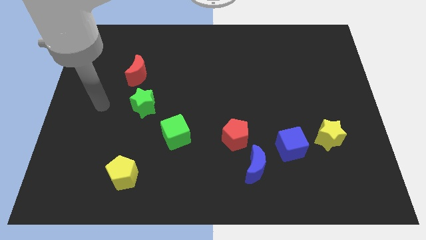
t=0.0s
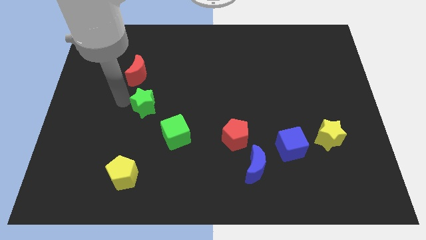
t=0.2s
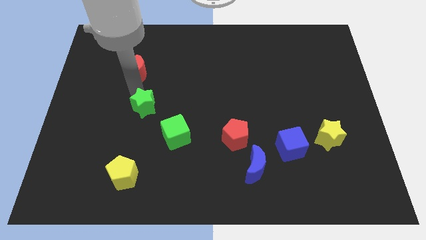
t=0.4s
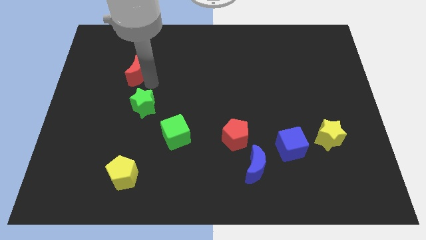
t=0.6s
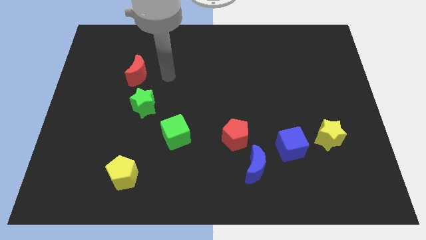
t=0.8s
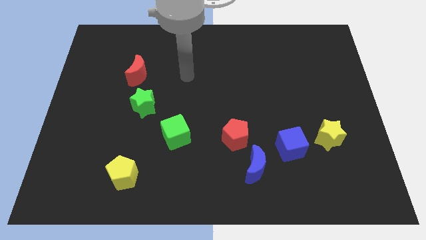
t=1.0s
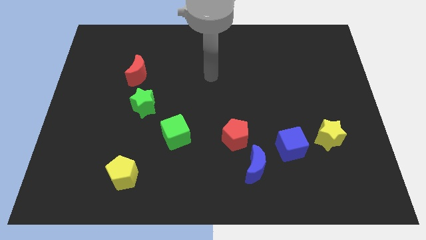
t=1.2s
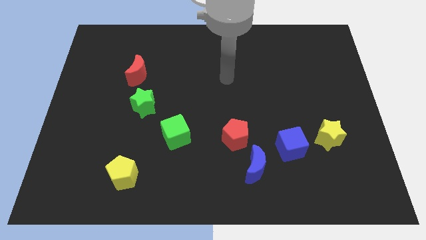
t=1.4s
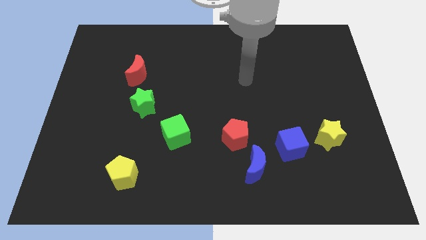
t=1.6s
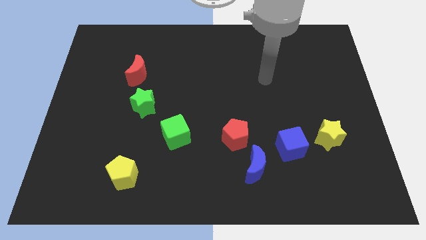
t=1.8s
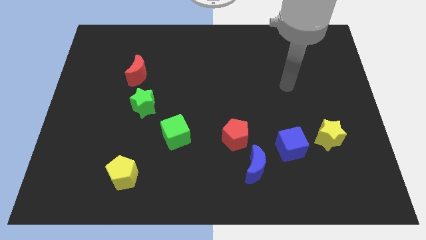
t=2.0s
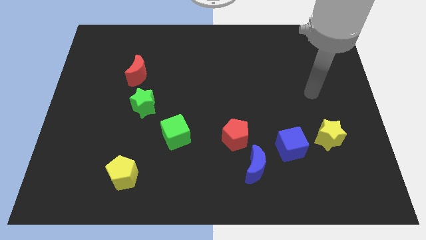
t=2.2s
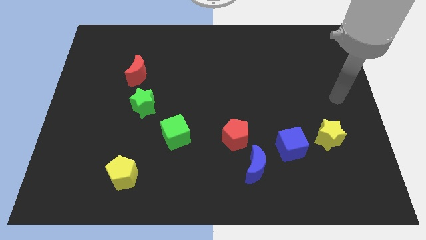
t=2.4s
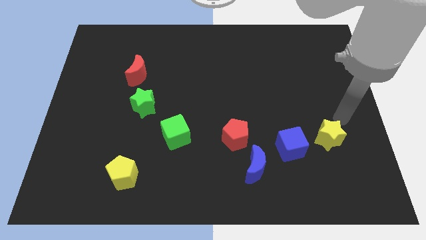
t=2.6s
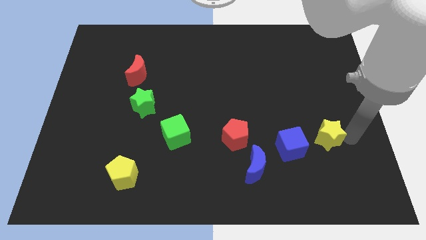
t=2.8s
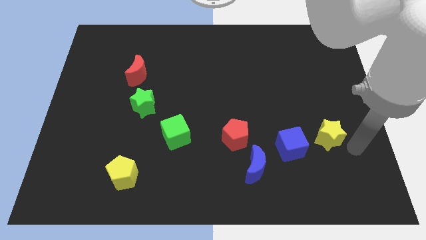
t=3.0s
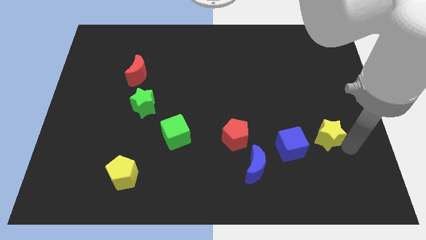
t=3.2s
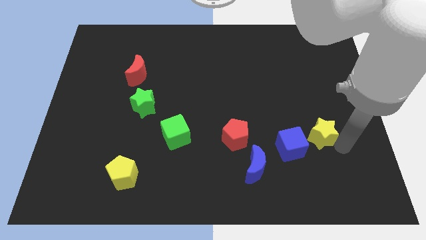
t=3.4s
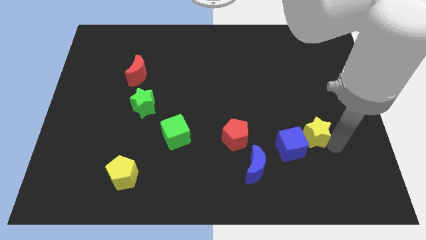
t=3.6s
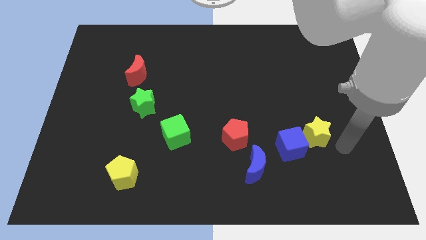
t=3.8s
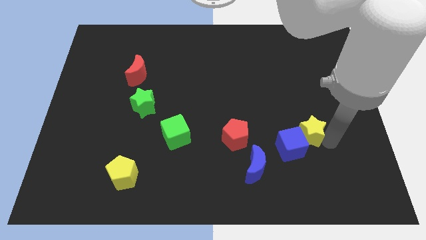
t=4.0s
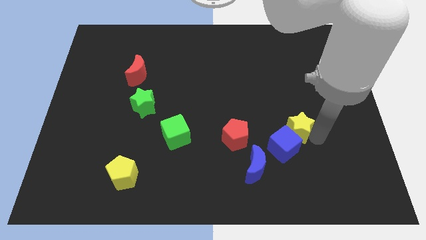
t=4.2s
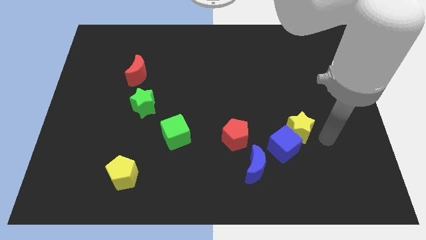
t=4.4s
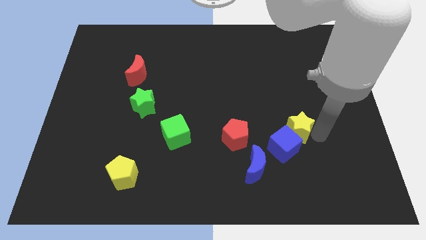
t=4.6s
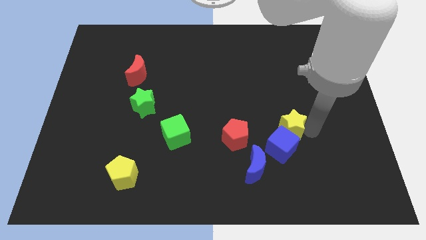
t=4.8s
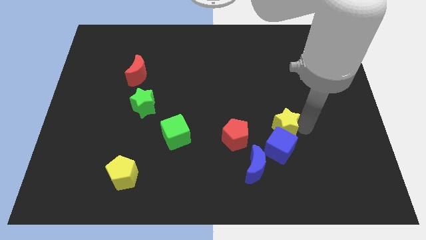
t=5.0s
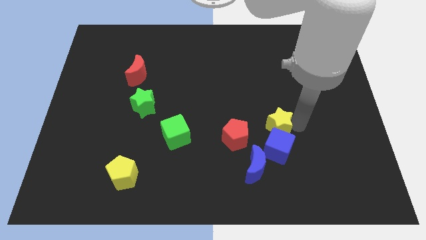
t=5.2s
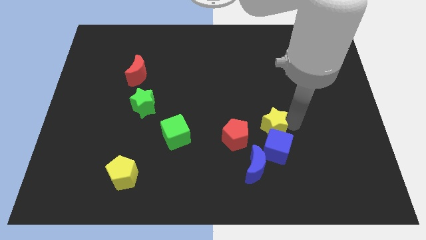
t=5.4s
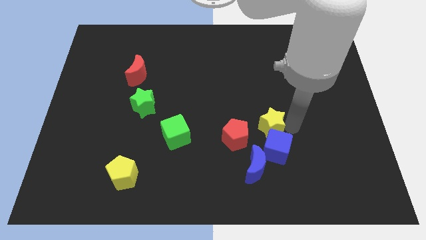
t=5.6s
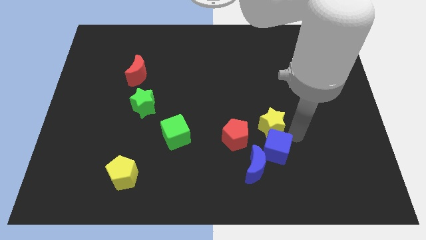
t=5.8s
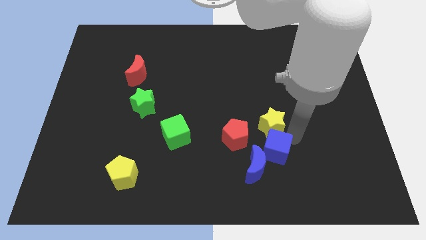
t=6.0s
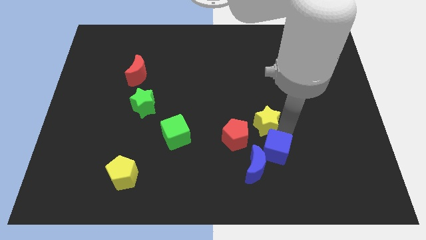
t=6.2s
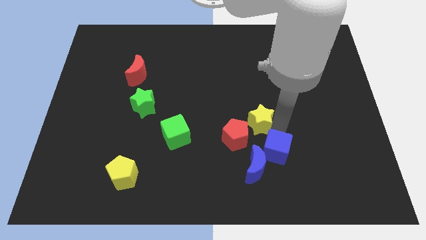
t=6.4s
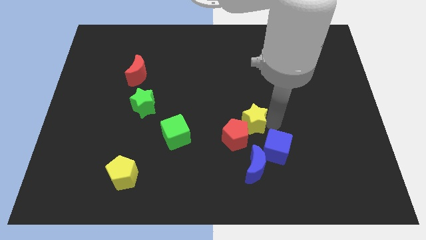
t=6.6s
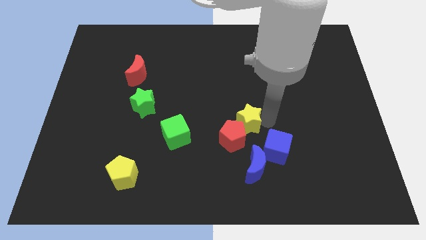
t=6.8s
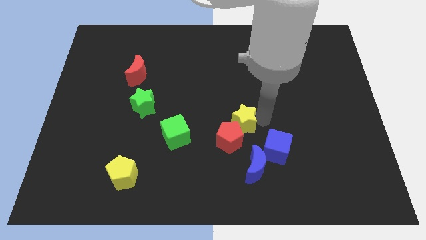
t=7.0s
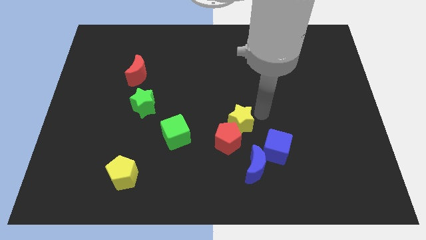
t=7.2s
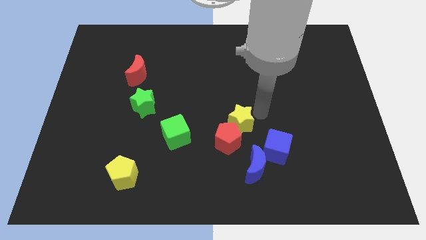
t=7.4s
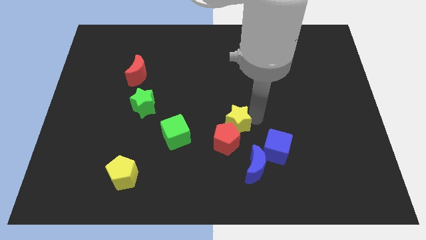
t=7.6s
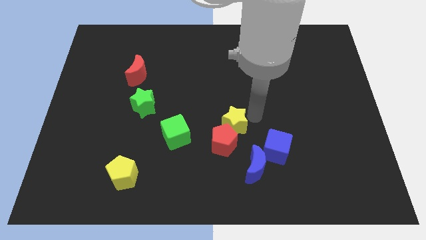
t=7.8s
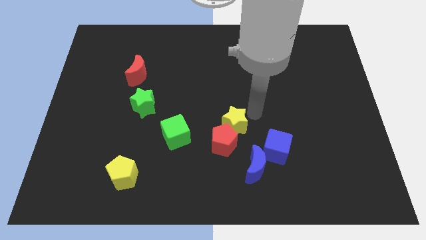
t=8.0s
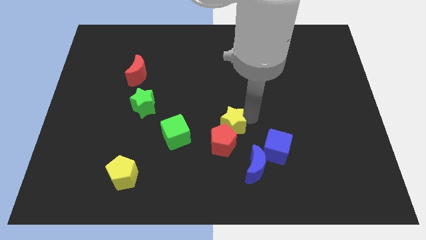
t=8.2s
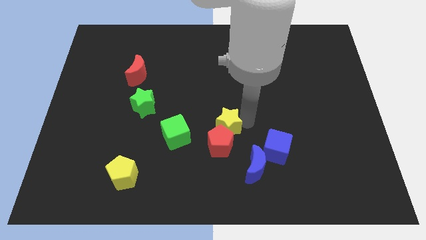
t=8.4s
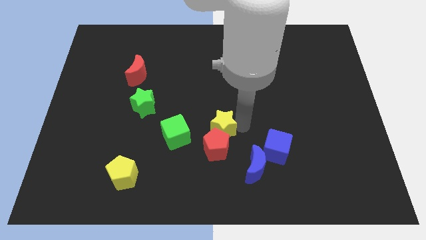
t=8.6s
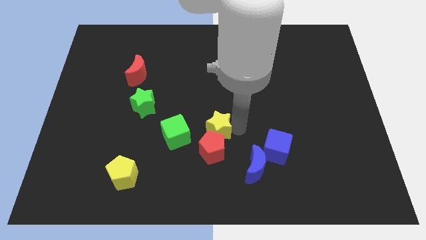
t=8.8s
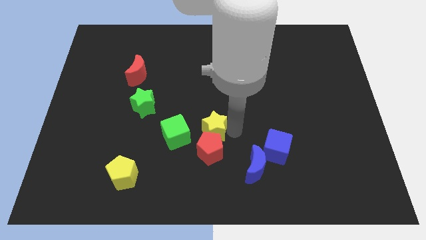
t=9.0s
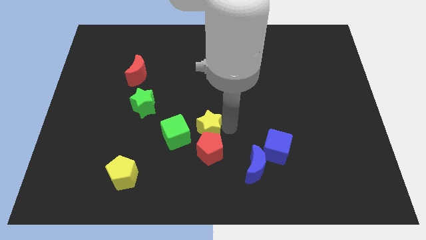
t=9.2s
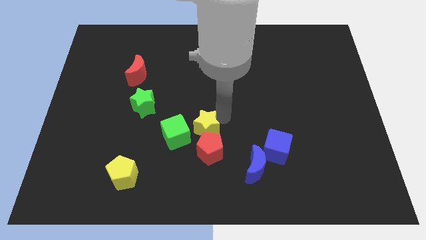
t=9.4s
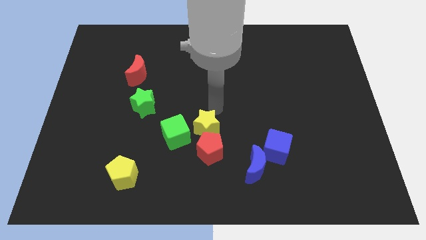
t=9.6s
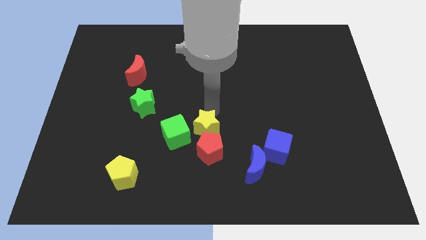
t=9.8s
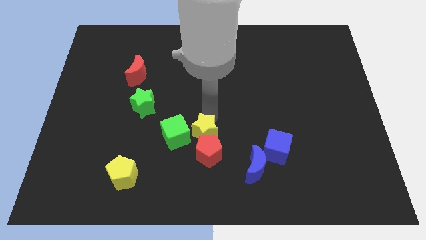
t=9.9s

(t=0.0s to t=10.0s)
move the yellow star diagonally down and to the right of the green cube

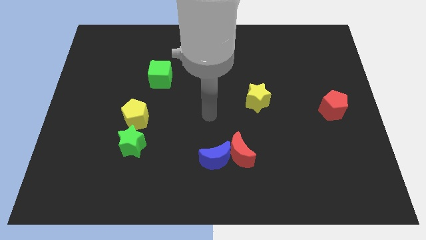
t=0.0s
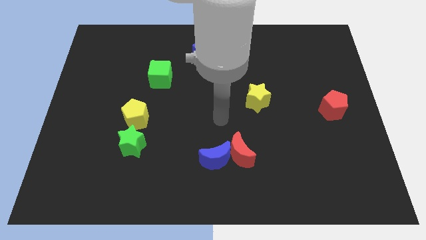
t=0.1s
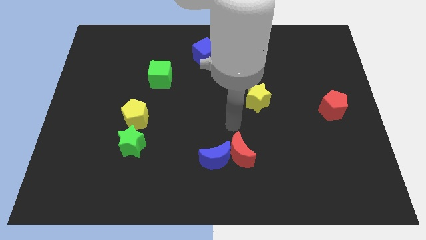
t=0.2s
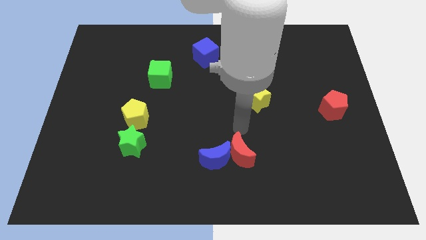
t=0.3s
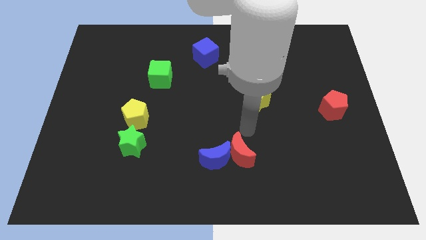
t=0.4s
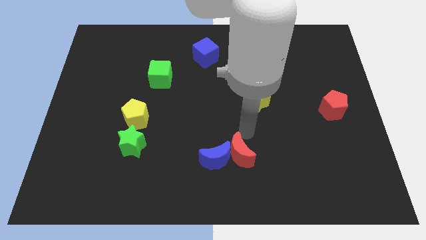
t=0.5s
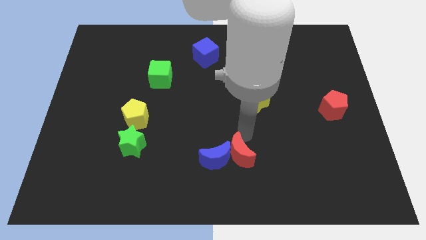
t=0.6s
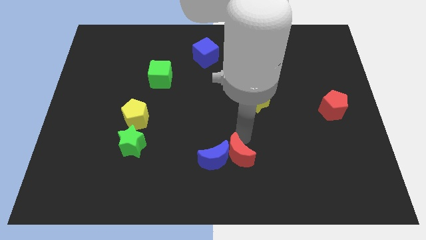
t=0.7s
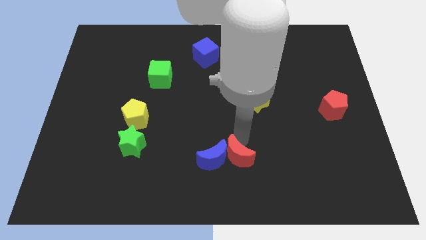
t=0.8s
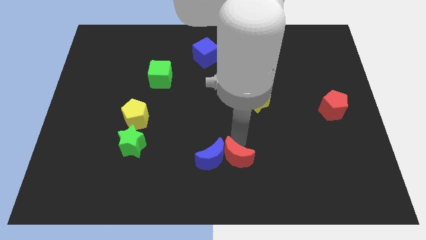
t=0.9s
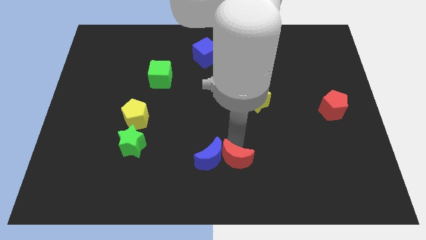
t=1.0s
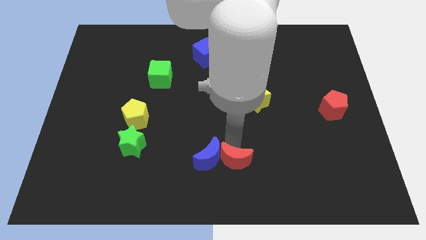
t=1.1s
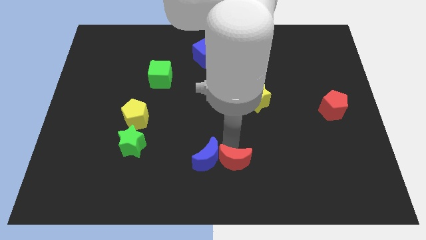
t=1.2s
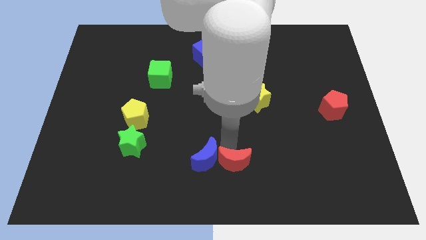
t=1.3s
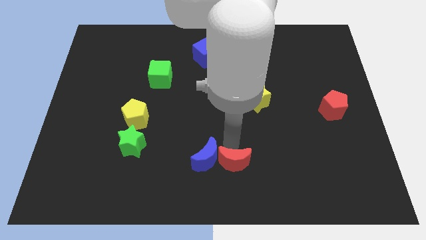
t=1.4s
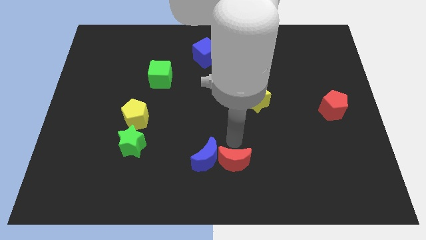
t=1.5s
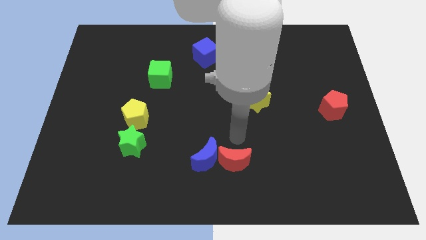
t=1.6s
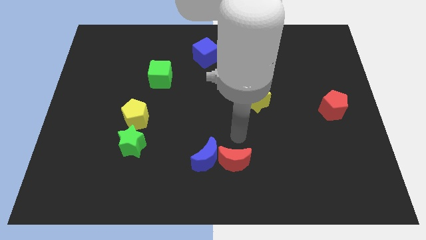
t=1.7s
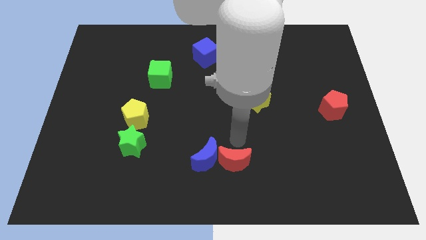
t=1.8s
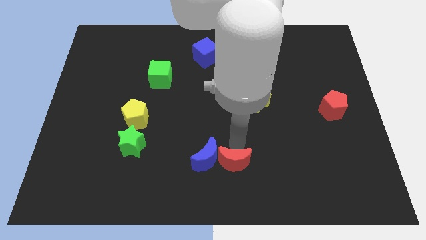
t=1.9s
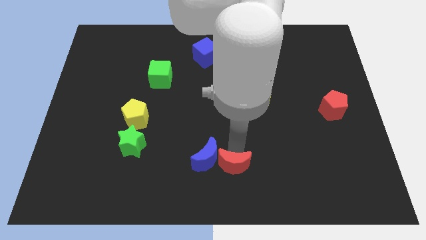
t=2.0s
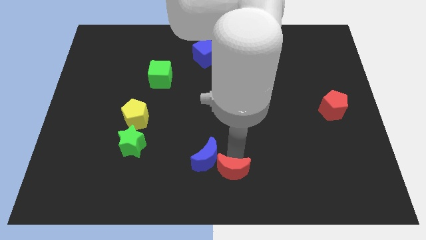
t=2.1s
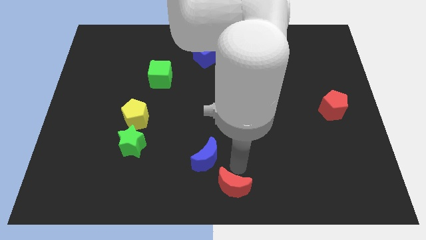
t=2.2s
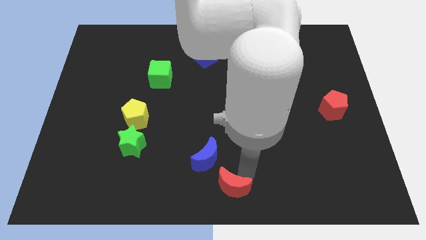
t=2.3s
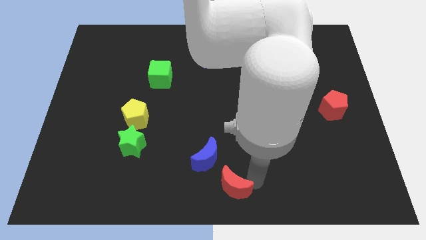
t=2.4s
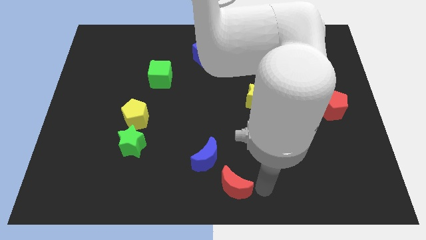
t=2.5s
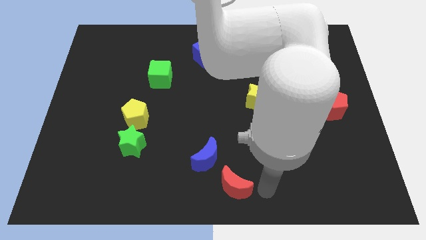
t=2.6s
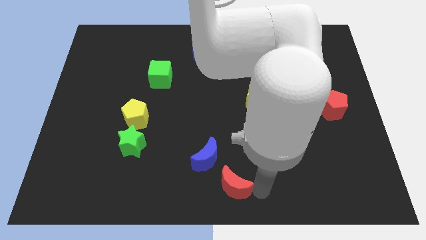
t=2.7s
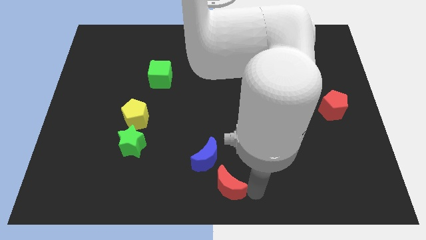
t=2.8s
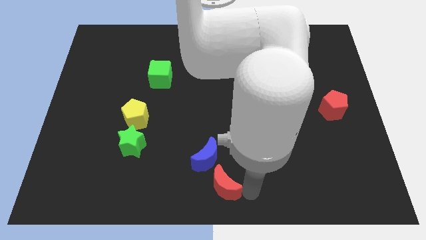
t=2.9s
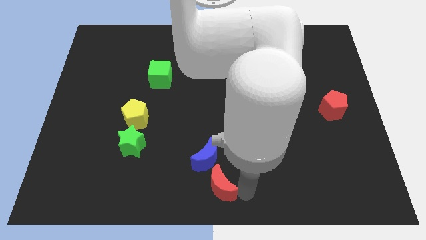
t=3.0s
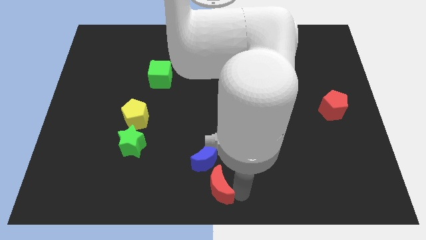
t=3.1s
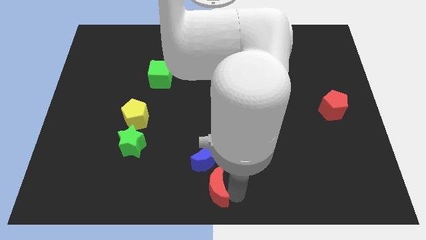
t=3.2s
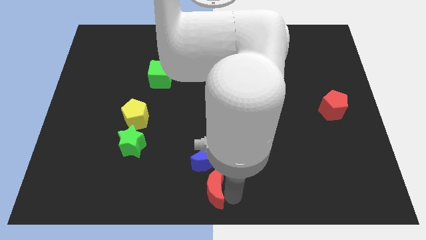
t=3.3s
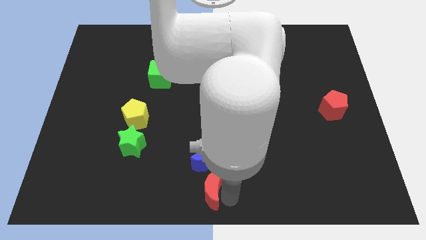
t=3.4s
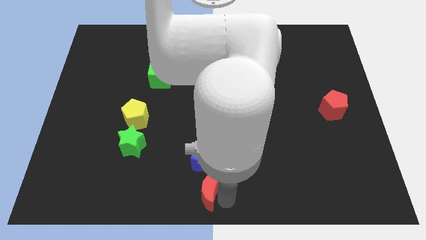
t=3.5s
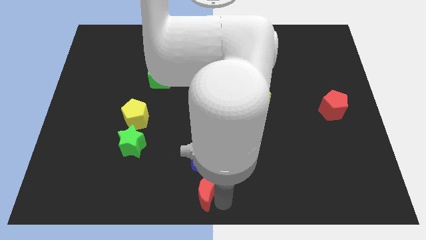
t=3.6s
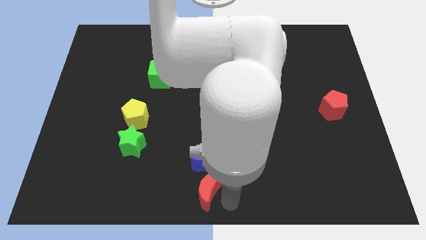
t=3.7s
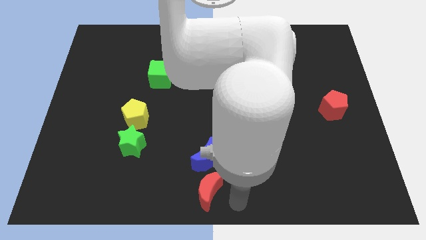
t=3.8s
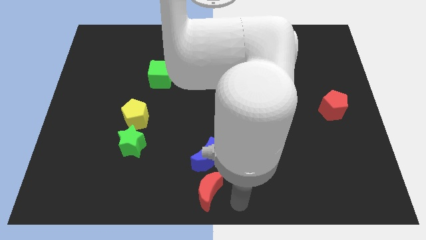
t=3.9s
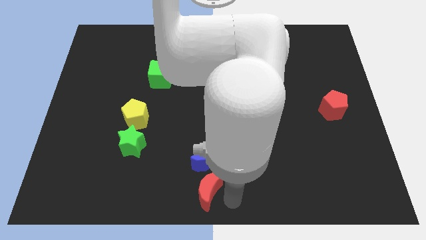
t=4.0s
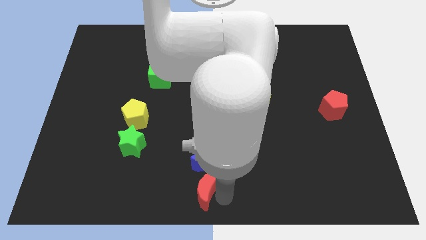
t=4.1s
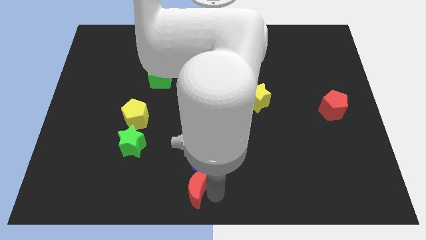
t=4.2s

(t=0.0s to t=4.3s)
push the red moon diagonally down and to the left of the blue moon
